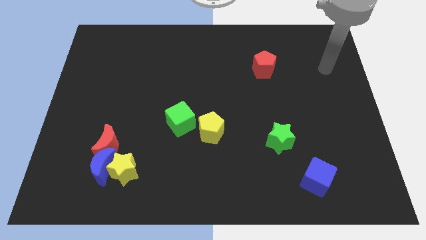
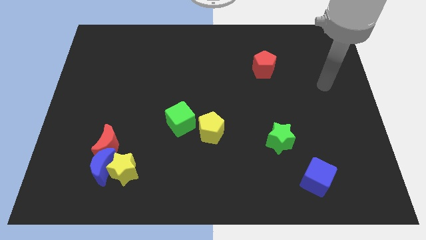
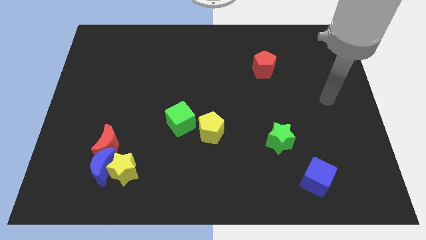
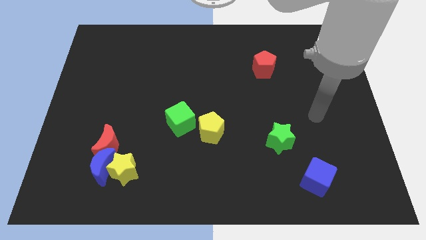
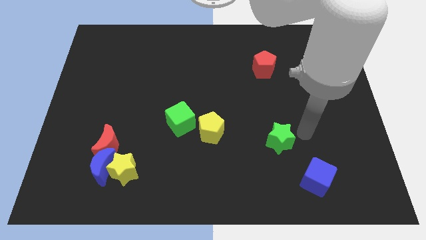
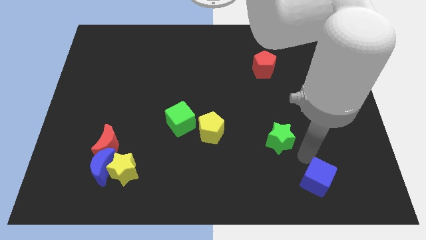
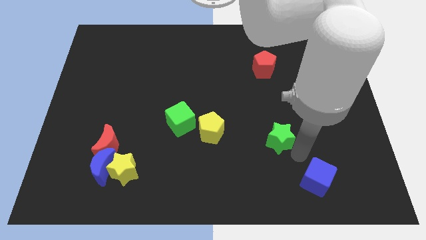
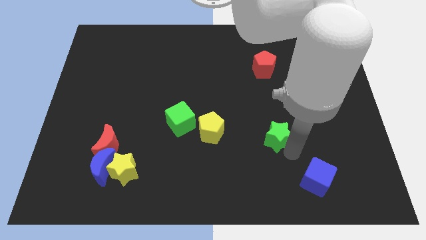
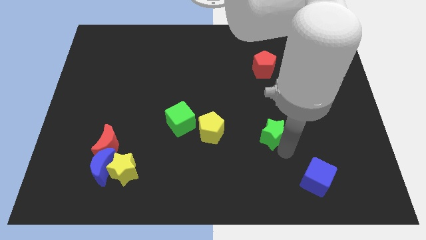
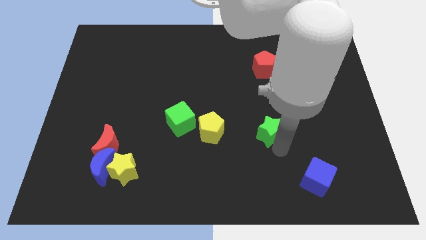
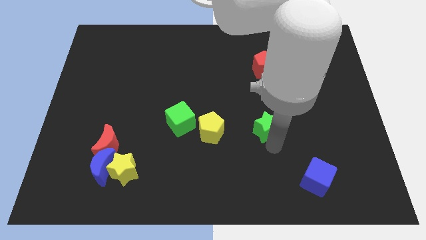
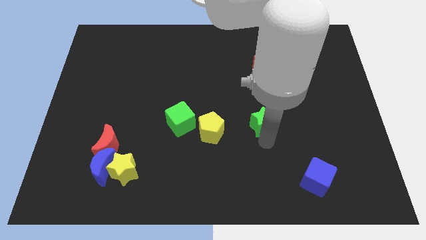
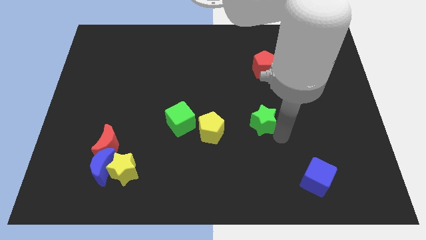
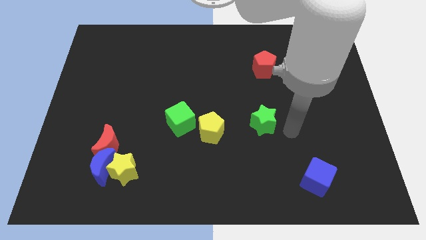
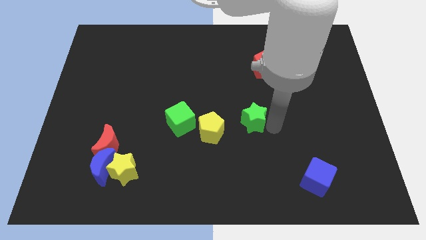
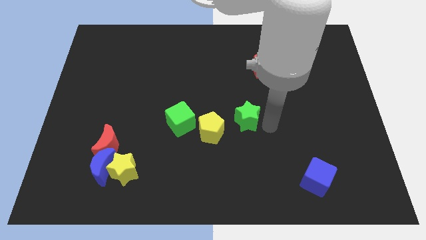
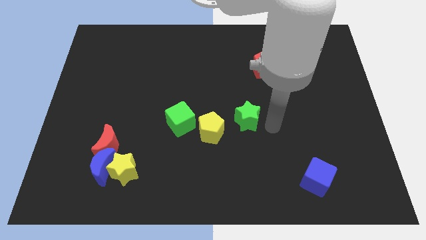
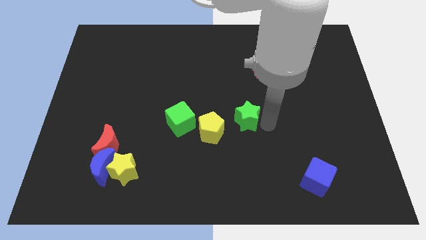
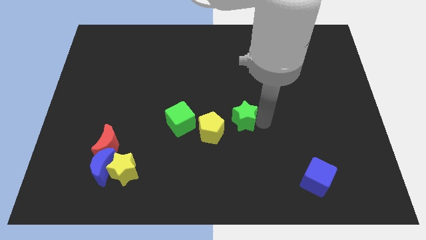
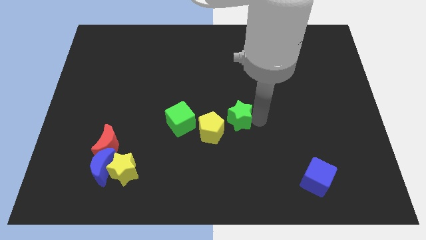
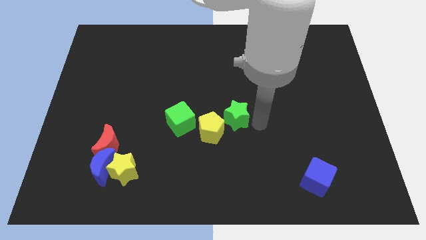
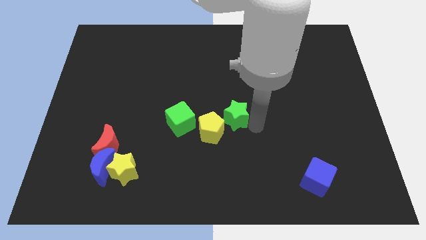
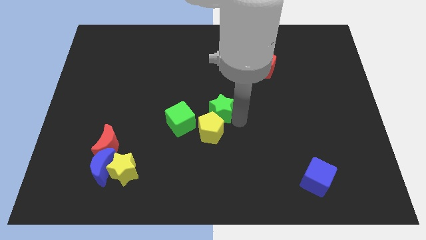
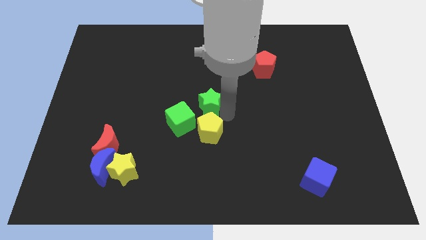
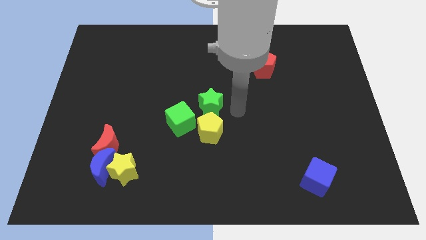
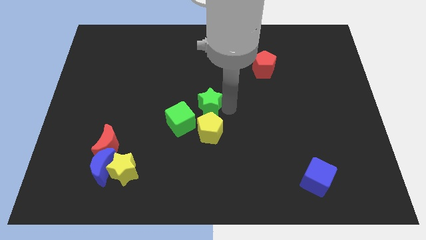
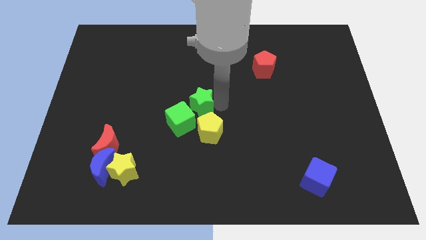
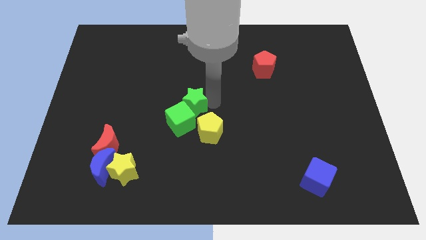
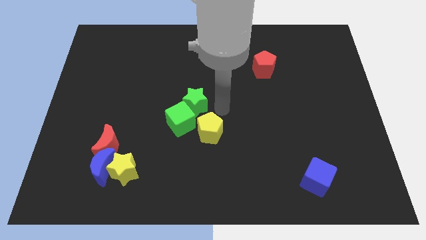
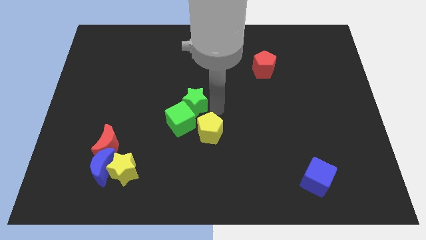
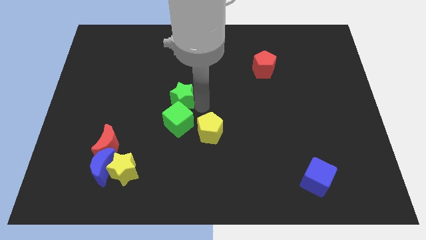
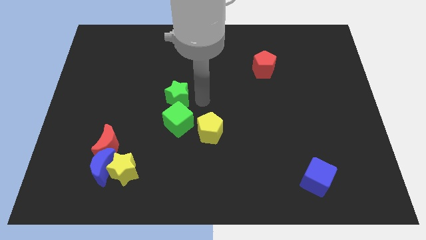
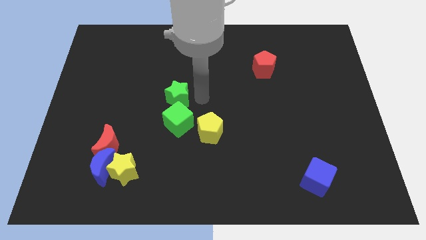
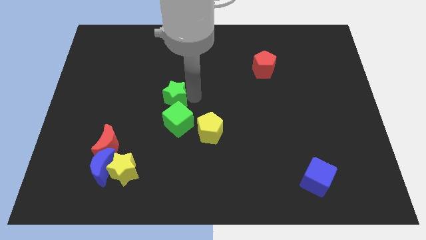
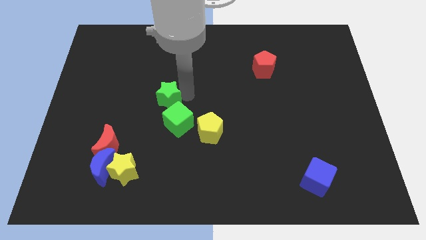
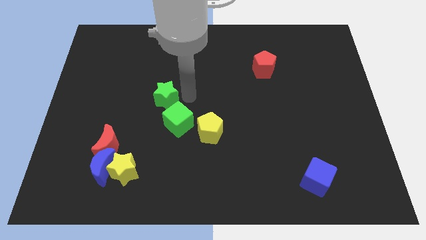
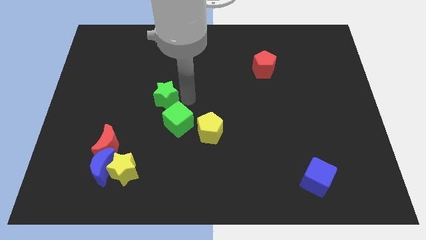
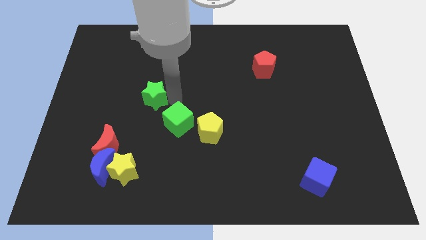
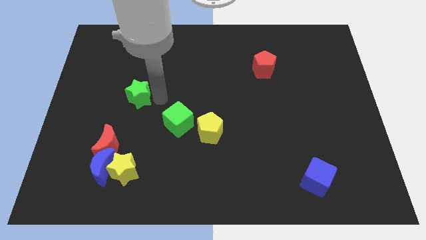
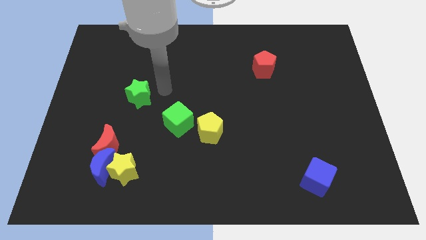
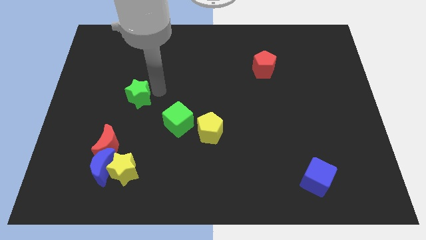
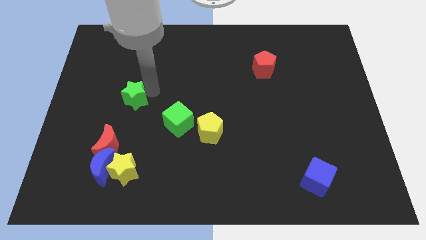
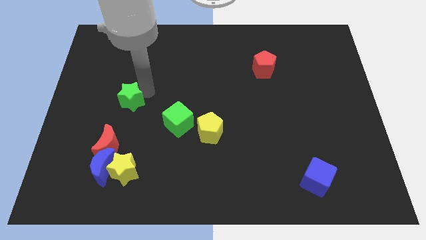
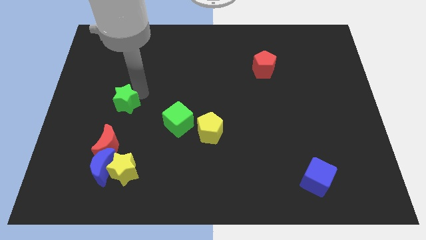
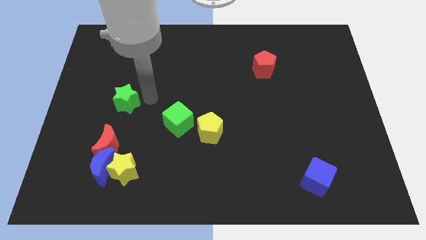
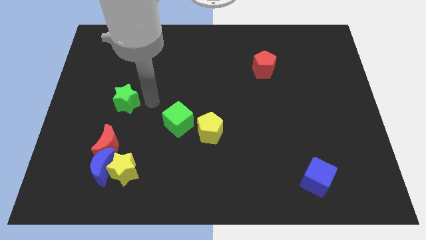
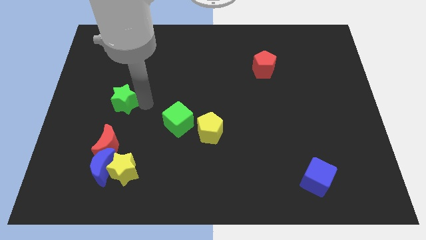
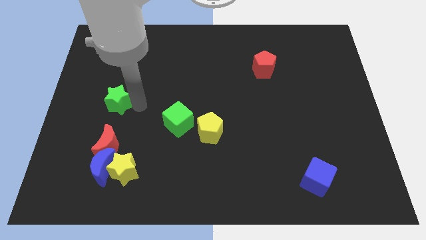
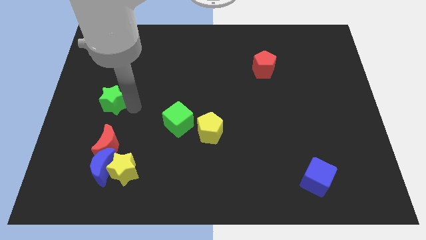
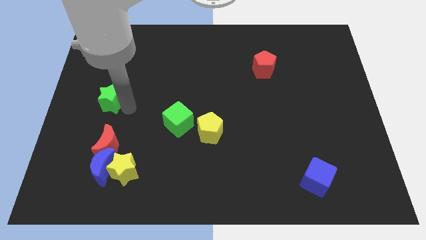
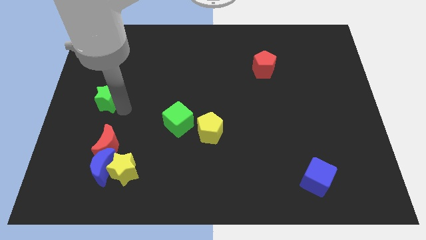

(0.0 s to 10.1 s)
move the green star to the left side of the board

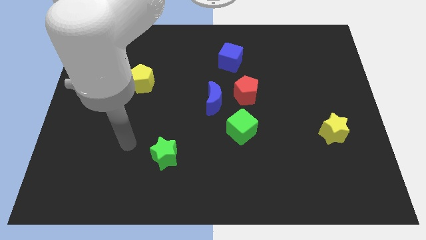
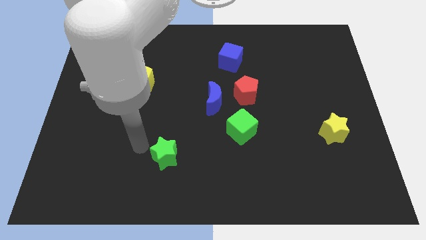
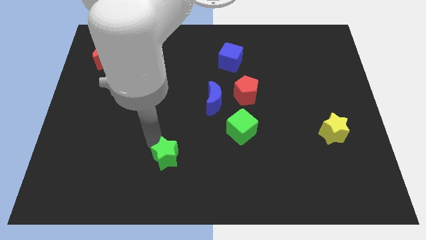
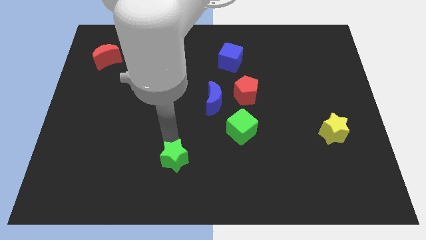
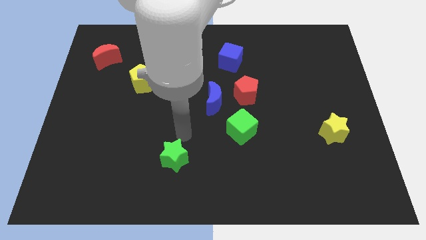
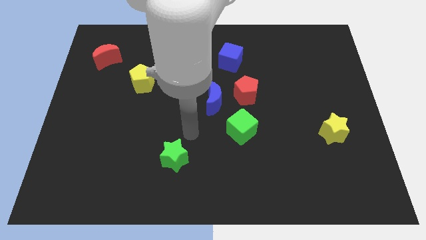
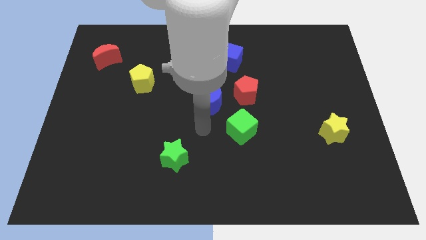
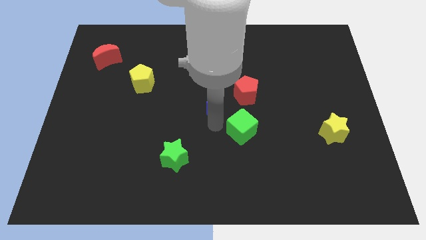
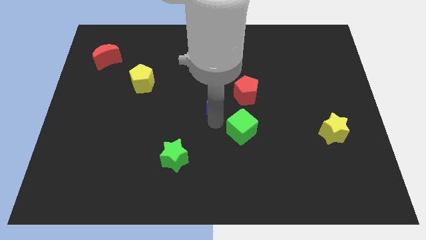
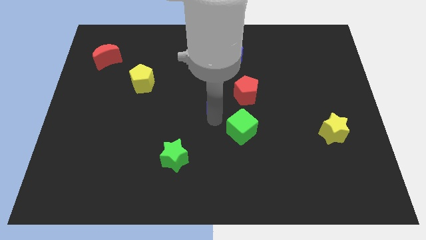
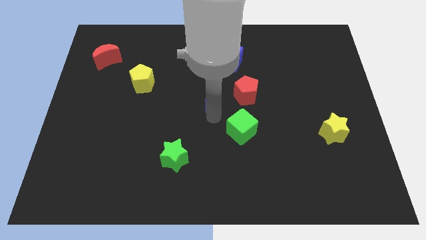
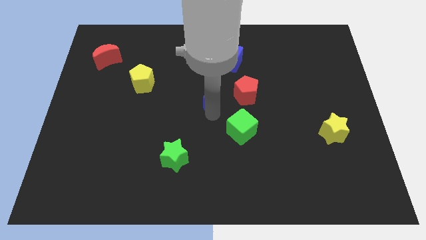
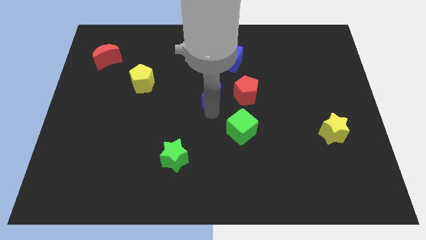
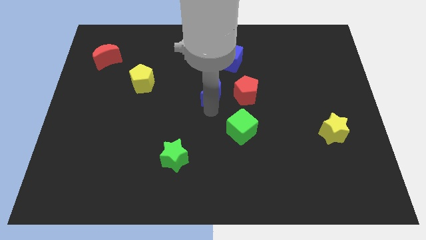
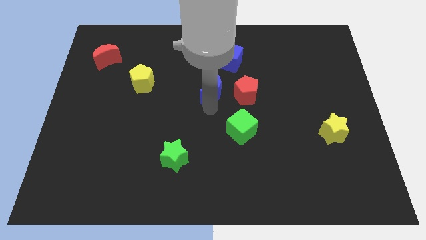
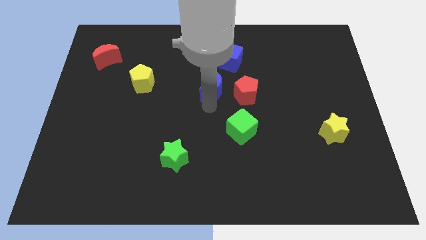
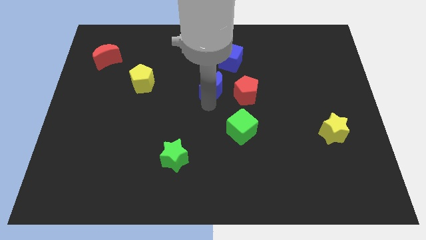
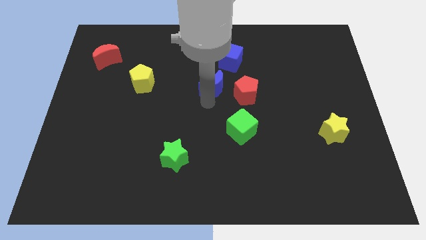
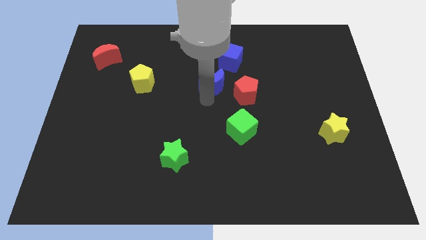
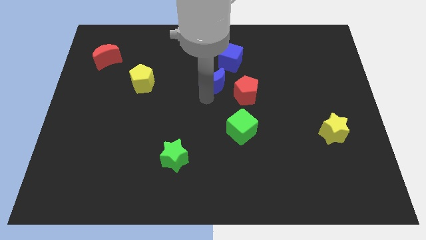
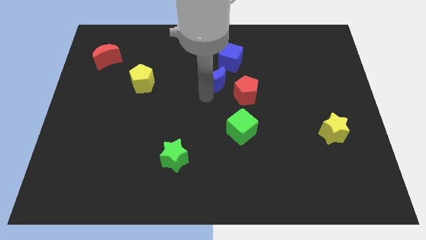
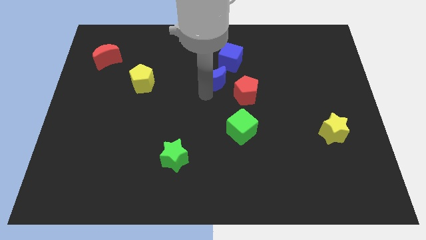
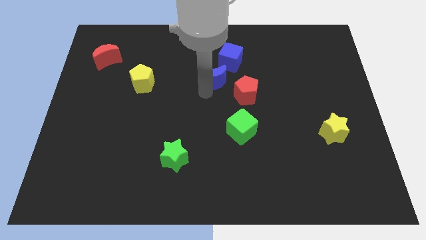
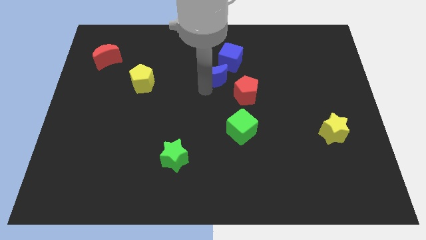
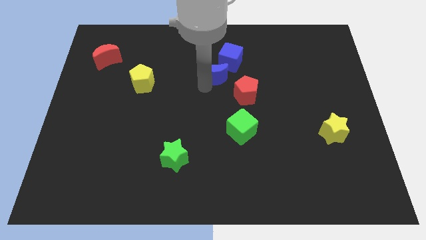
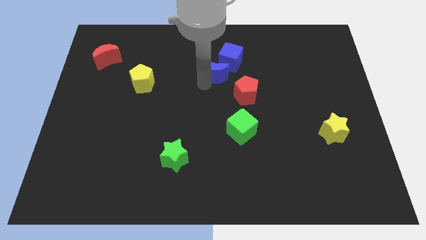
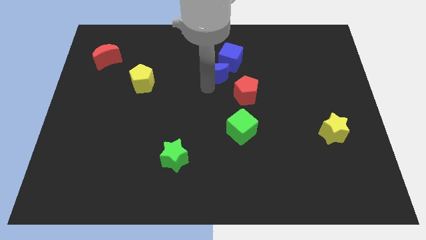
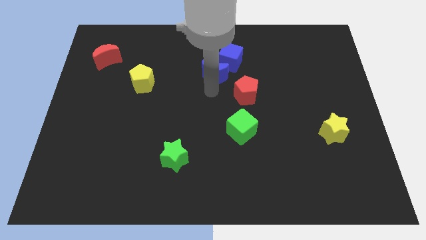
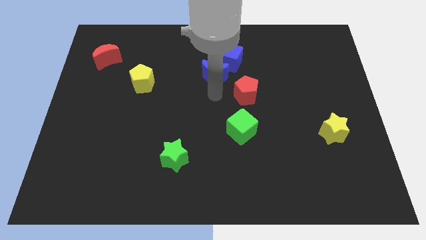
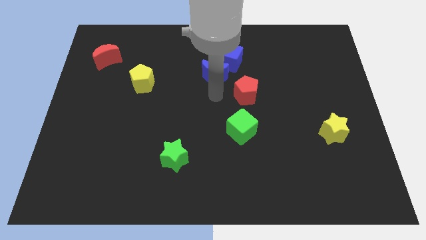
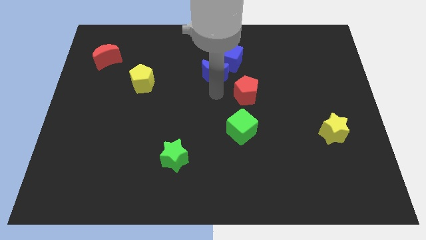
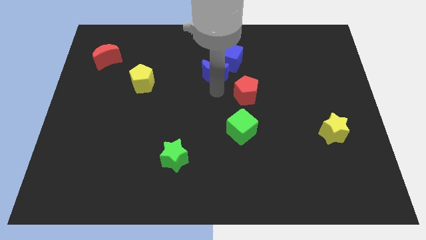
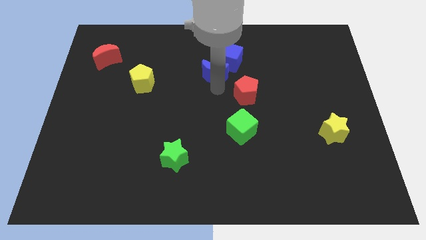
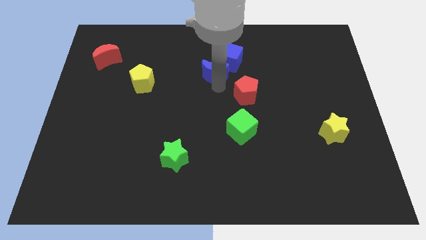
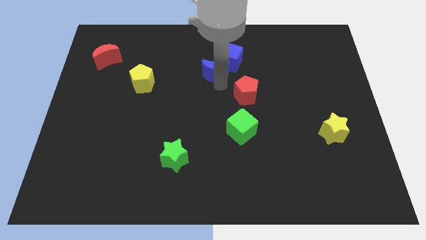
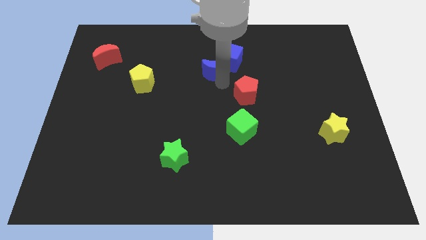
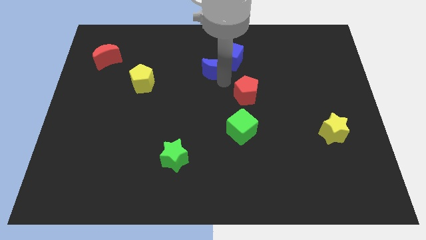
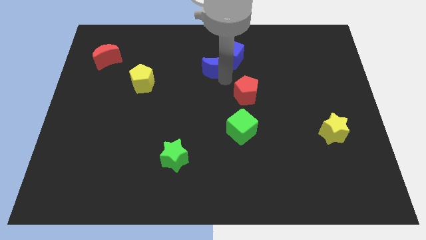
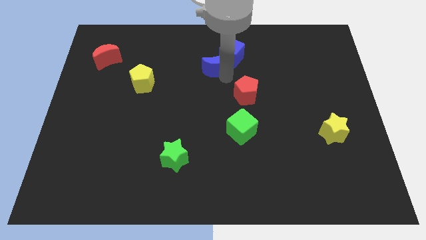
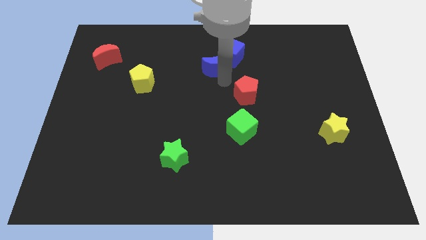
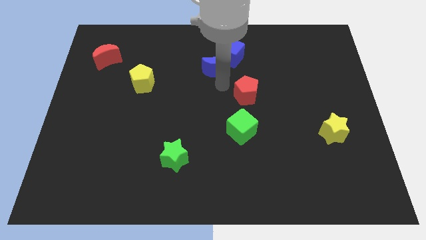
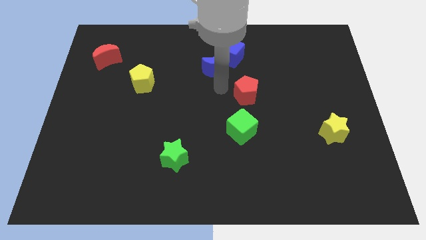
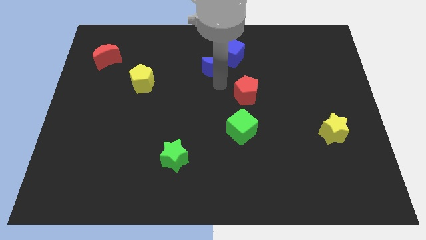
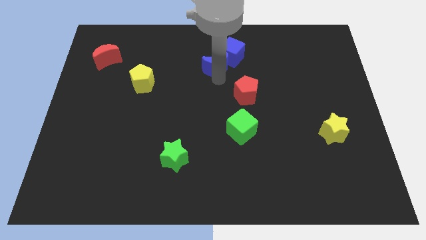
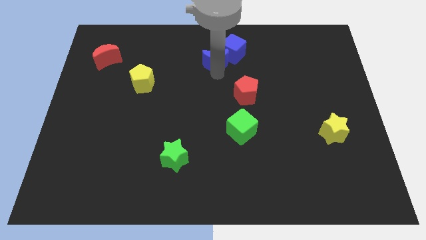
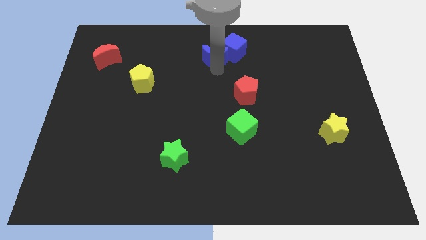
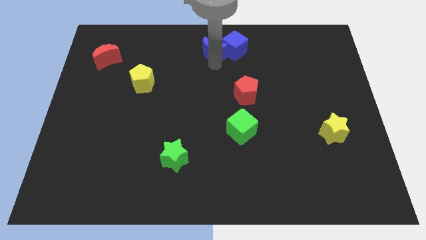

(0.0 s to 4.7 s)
move the blue moon to the towards your base
